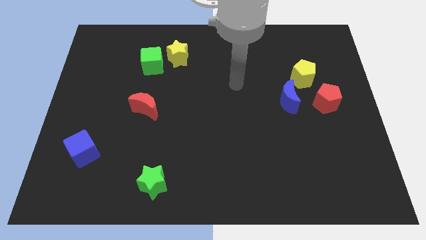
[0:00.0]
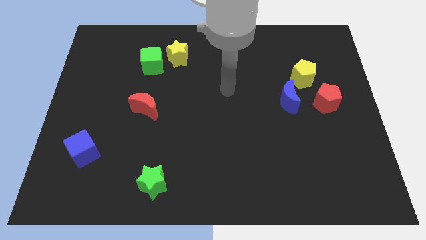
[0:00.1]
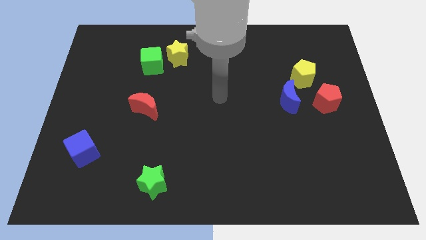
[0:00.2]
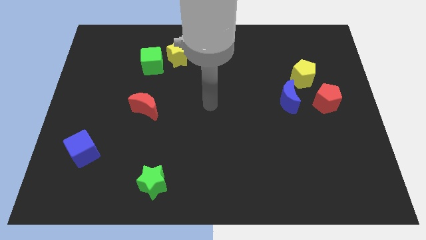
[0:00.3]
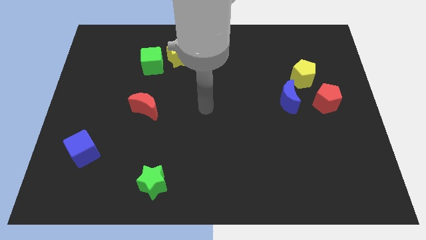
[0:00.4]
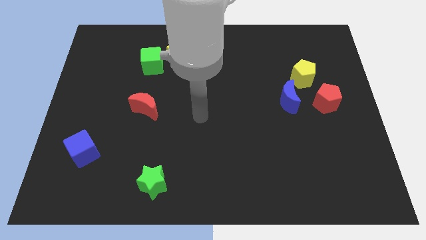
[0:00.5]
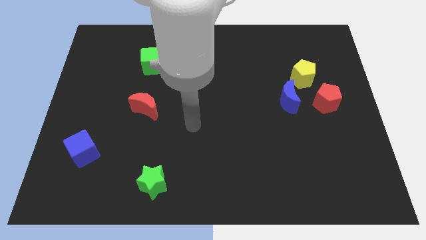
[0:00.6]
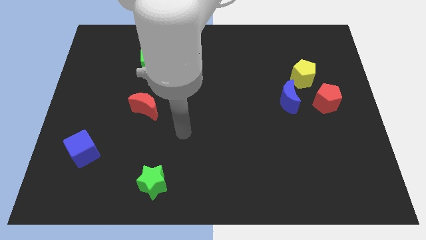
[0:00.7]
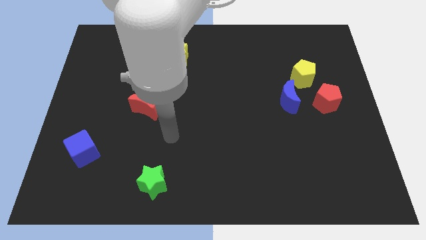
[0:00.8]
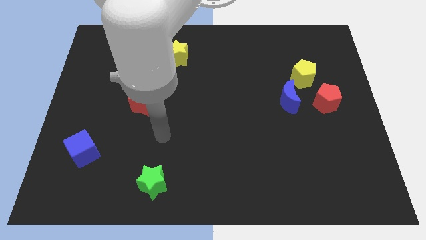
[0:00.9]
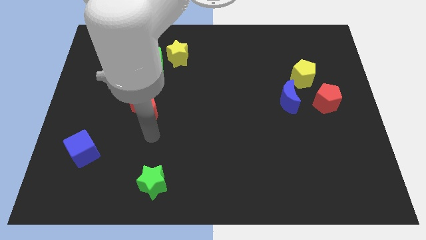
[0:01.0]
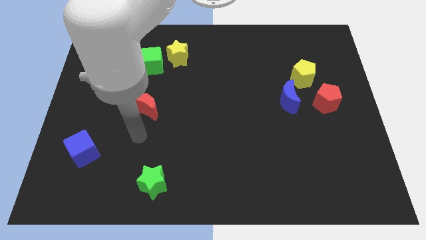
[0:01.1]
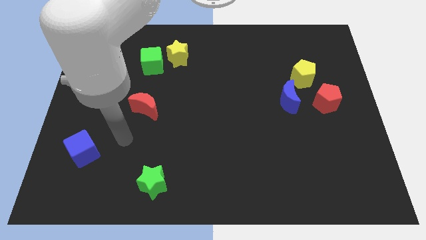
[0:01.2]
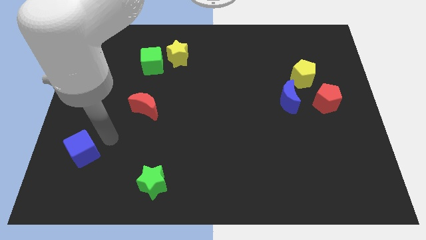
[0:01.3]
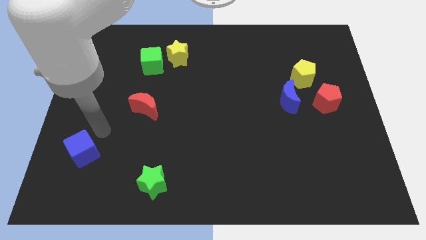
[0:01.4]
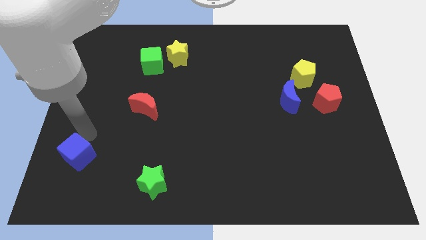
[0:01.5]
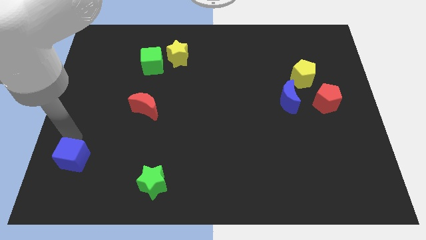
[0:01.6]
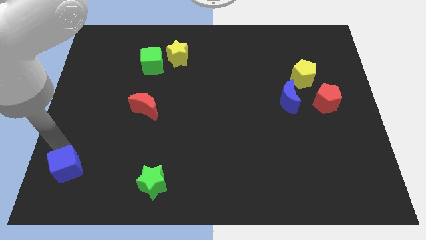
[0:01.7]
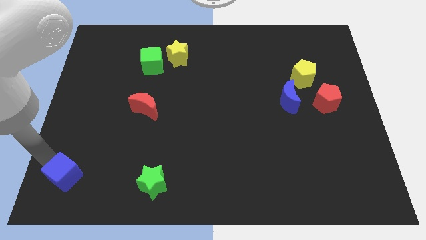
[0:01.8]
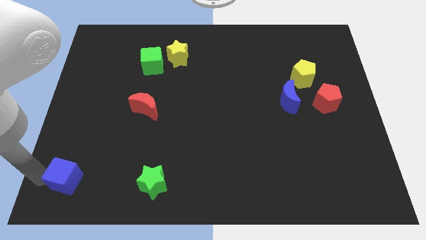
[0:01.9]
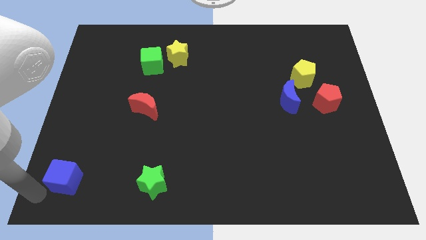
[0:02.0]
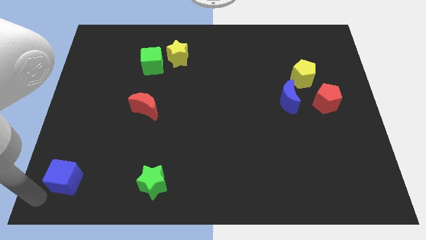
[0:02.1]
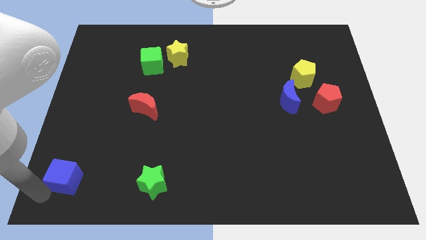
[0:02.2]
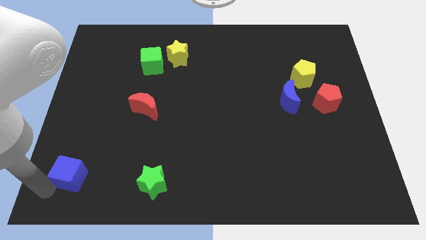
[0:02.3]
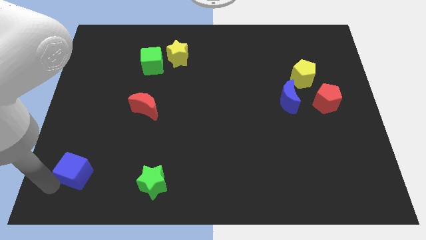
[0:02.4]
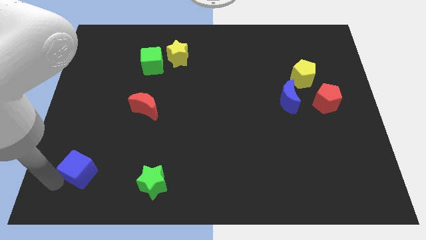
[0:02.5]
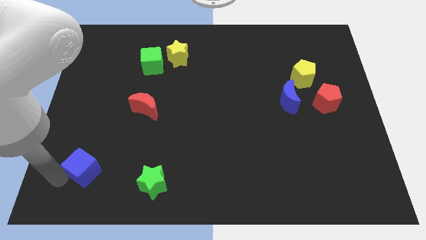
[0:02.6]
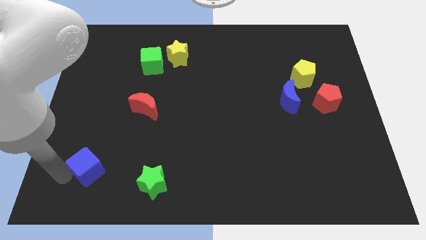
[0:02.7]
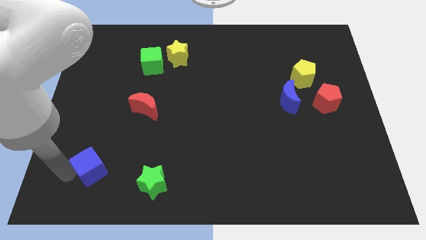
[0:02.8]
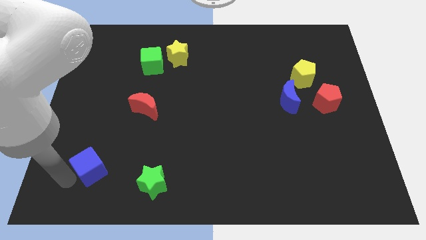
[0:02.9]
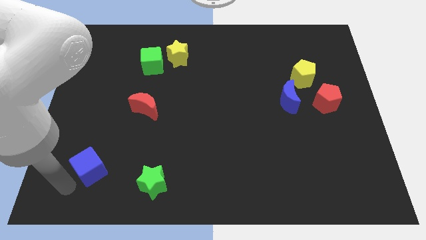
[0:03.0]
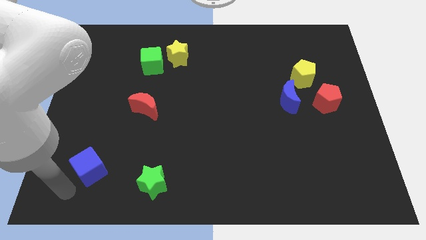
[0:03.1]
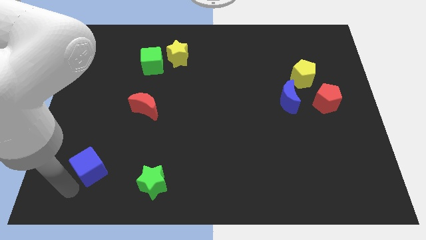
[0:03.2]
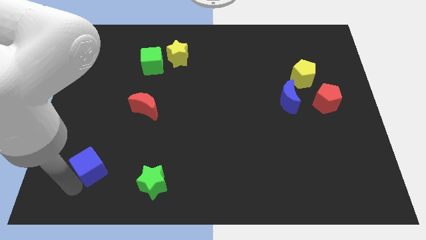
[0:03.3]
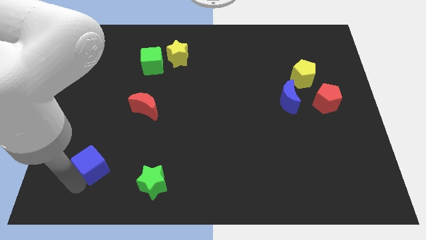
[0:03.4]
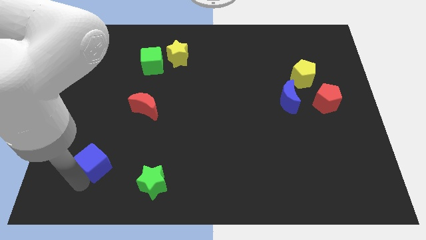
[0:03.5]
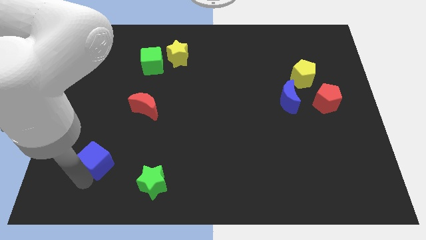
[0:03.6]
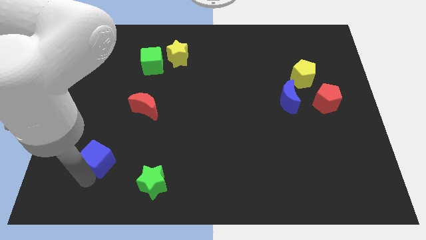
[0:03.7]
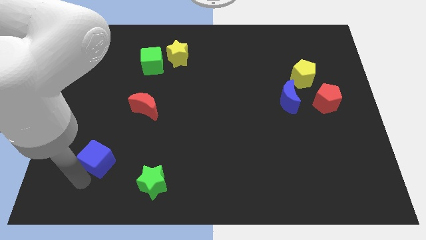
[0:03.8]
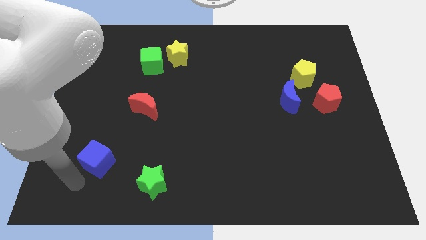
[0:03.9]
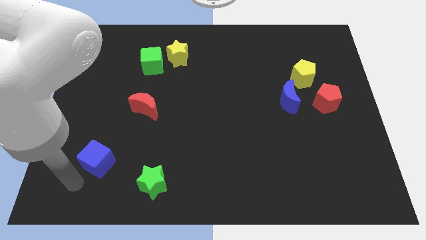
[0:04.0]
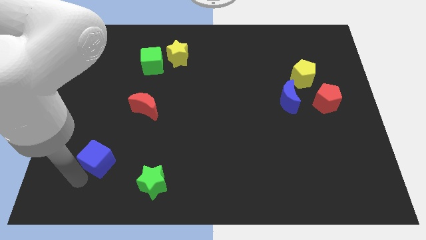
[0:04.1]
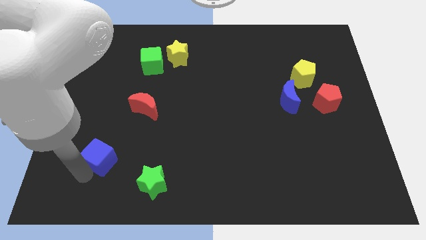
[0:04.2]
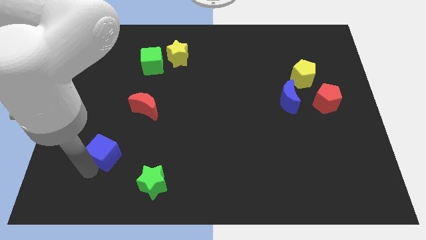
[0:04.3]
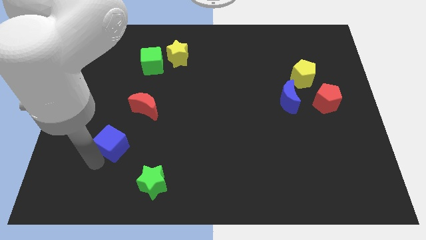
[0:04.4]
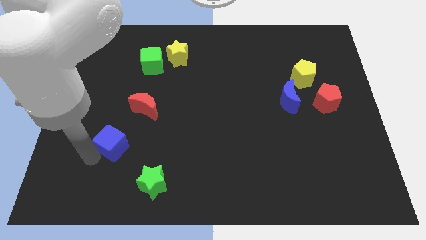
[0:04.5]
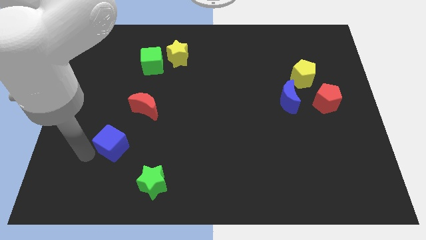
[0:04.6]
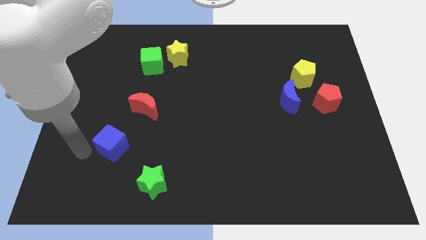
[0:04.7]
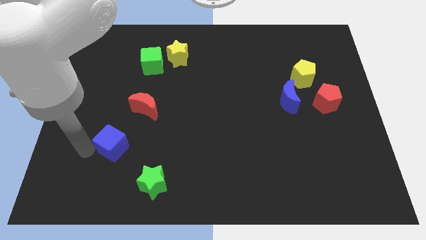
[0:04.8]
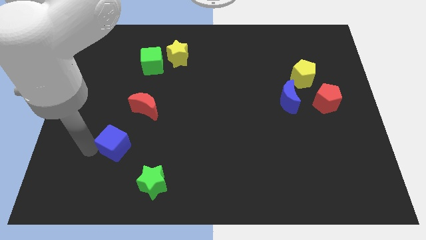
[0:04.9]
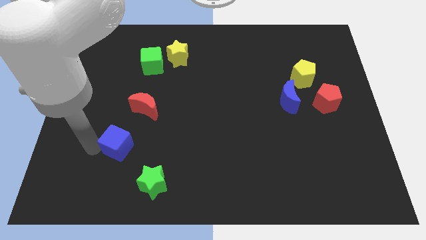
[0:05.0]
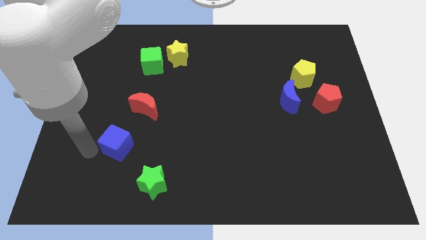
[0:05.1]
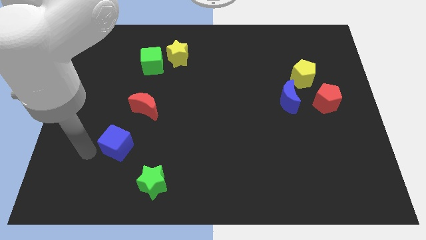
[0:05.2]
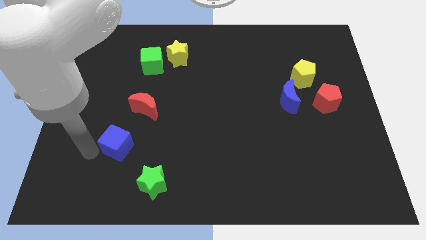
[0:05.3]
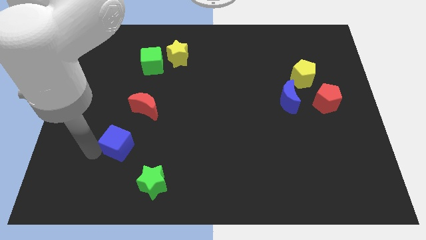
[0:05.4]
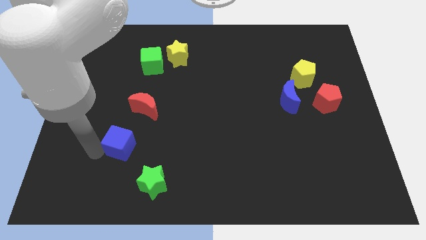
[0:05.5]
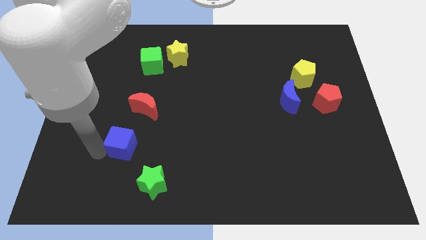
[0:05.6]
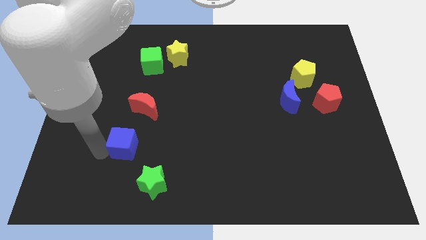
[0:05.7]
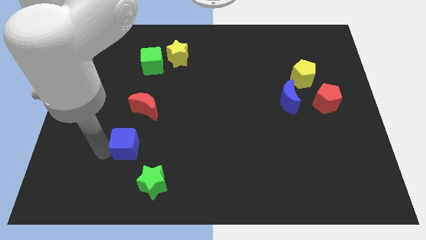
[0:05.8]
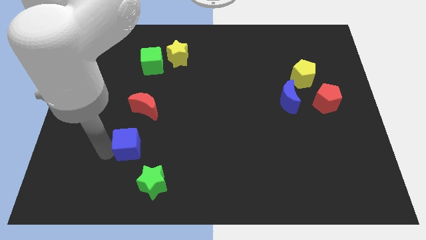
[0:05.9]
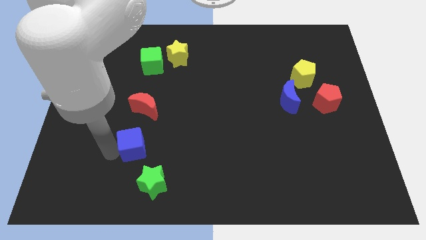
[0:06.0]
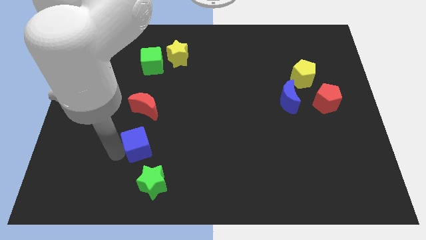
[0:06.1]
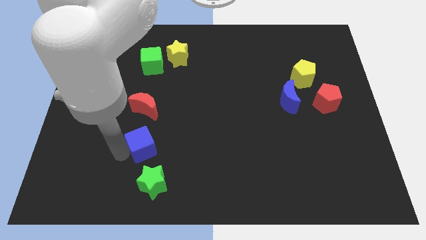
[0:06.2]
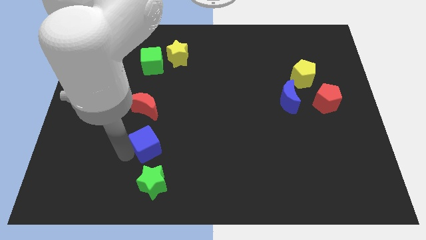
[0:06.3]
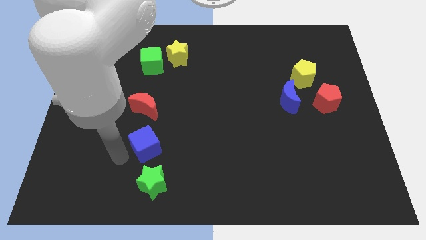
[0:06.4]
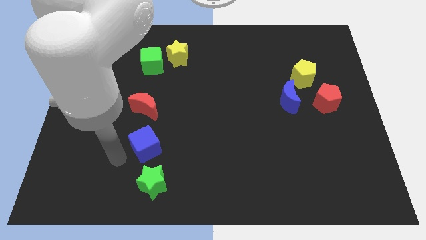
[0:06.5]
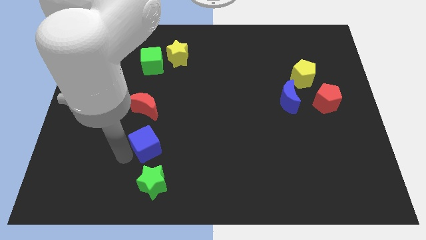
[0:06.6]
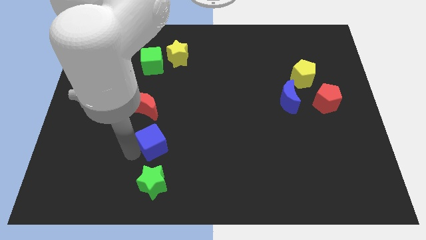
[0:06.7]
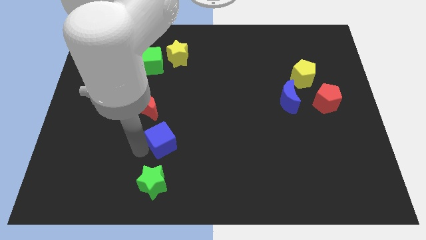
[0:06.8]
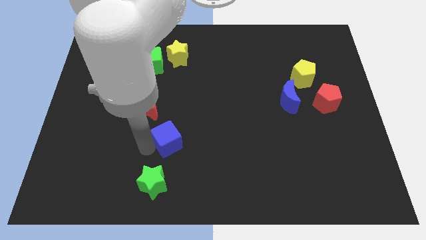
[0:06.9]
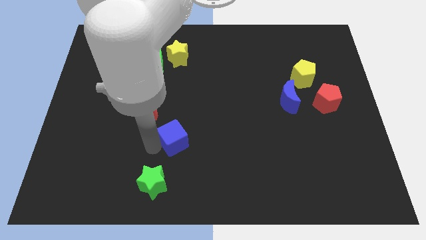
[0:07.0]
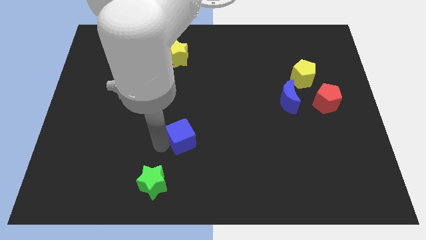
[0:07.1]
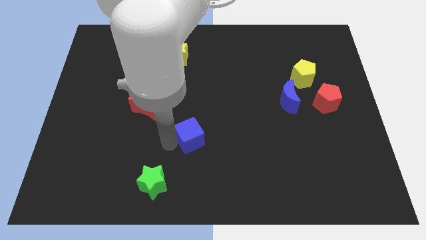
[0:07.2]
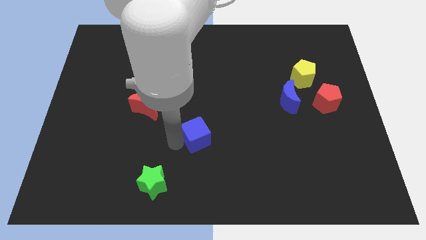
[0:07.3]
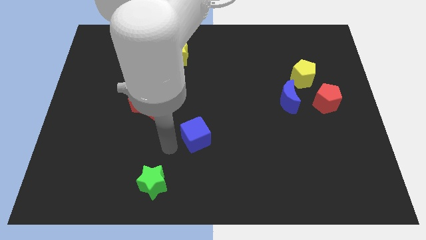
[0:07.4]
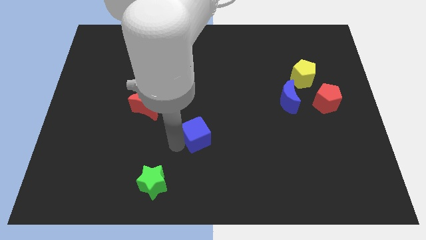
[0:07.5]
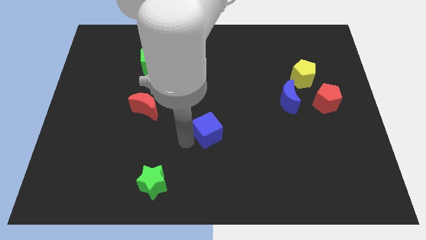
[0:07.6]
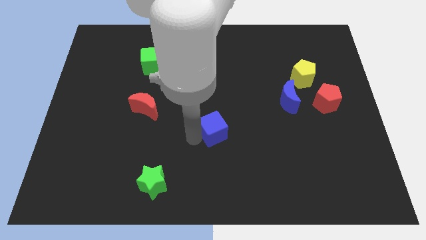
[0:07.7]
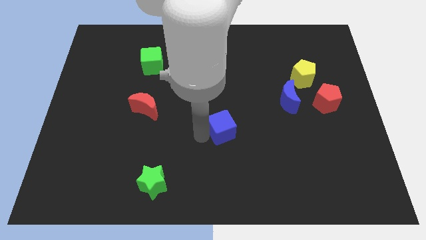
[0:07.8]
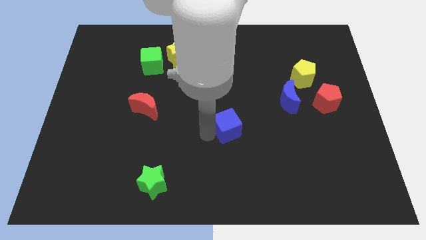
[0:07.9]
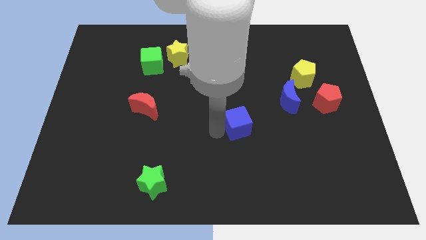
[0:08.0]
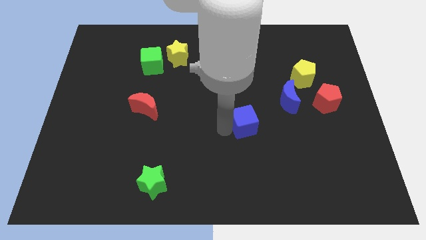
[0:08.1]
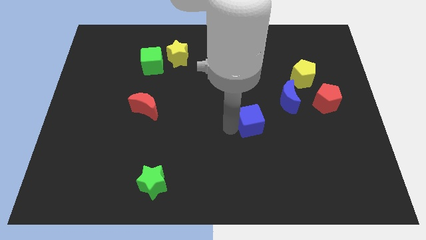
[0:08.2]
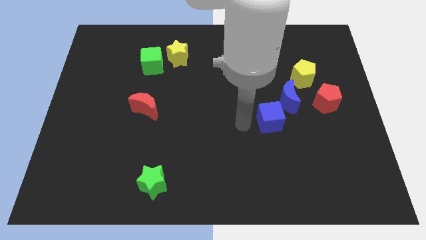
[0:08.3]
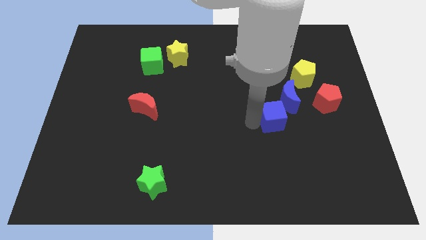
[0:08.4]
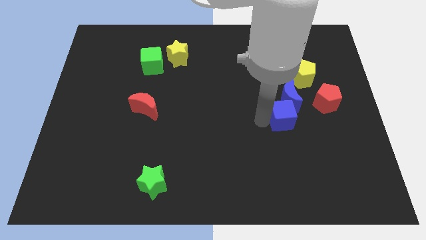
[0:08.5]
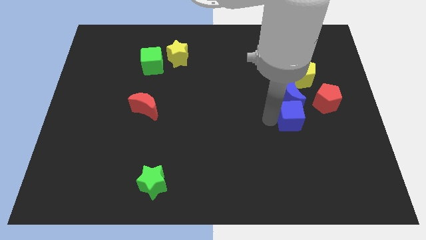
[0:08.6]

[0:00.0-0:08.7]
slide the blue cube to the bottom left of the red pentagon
